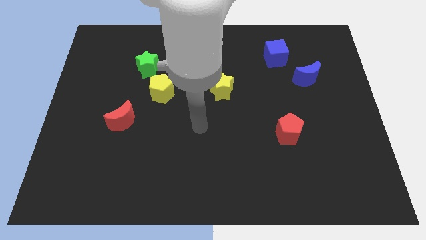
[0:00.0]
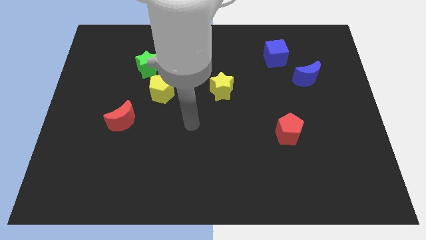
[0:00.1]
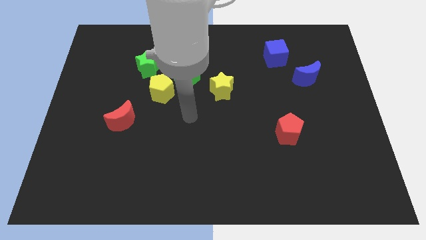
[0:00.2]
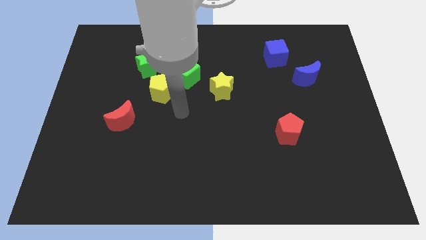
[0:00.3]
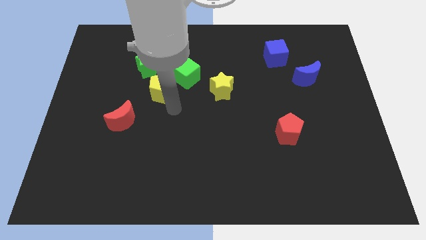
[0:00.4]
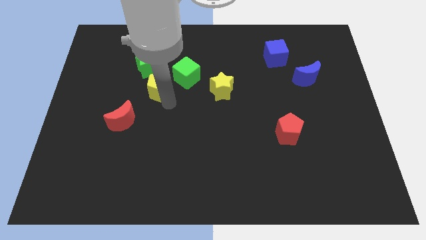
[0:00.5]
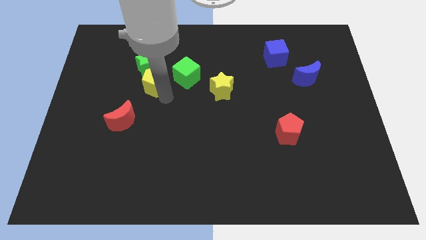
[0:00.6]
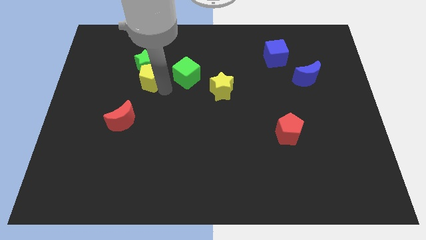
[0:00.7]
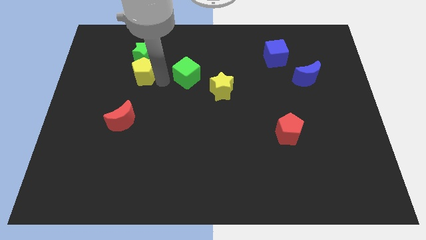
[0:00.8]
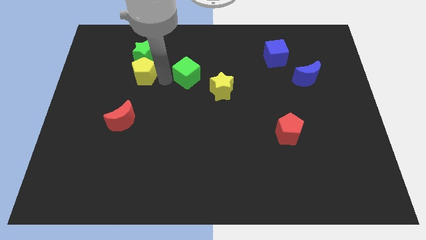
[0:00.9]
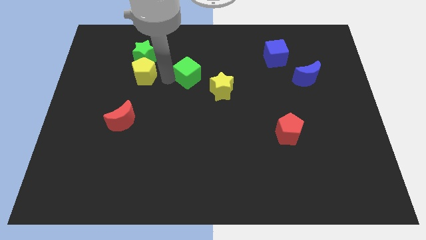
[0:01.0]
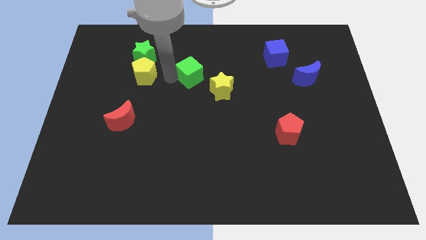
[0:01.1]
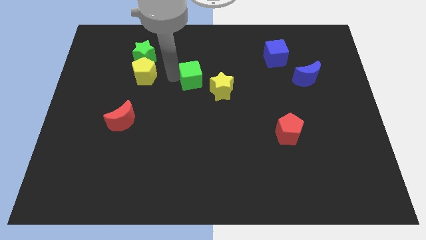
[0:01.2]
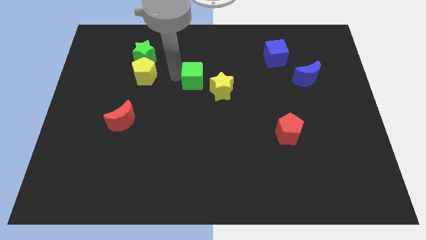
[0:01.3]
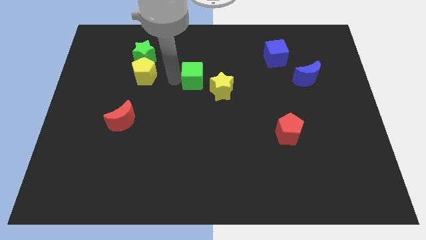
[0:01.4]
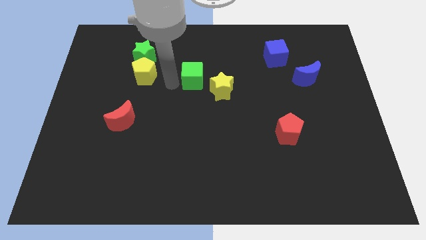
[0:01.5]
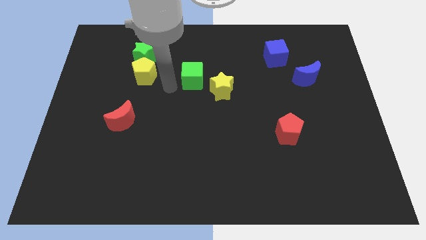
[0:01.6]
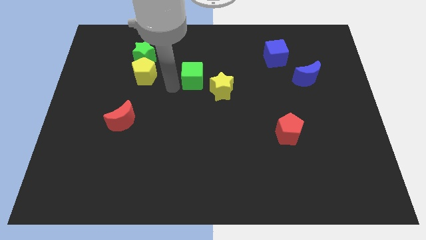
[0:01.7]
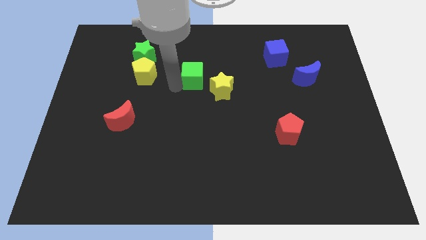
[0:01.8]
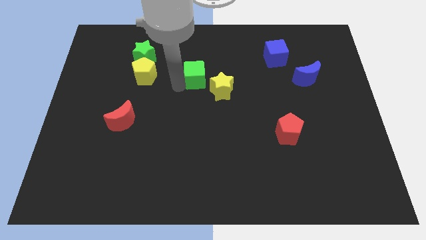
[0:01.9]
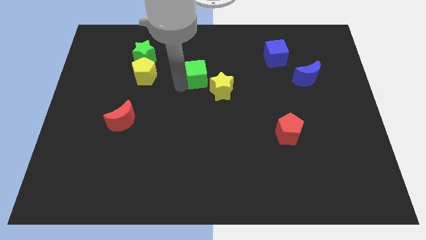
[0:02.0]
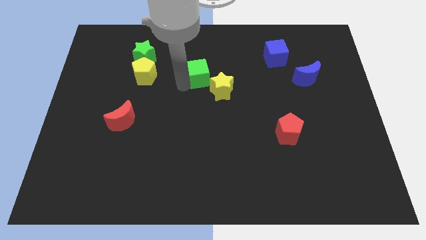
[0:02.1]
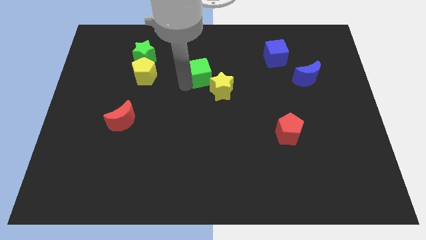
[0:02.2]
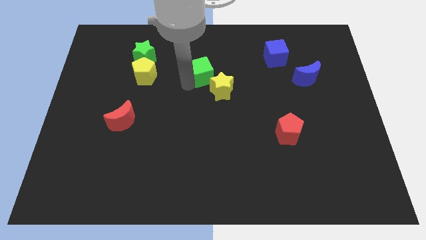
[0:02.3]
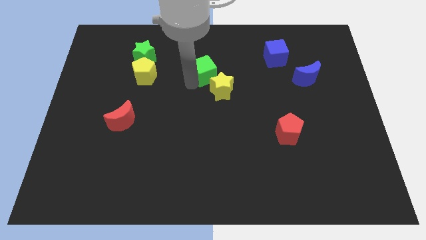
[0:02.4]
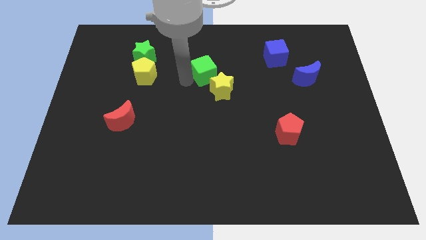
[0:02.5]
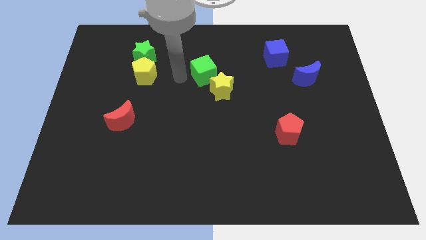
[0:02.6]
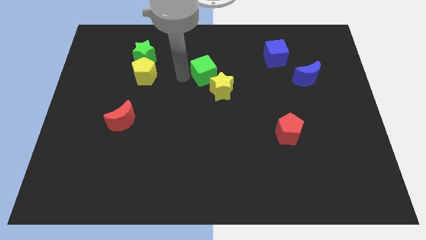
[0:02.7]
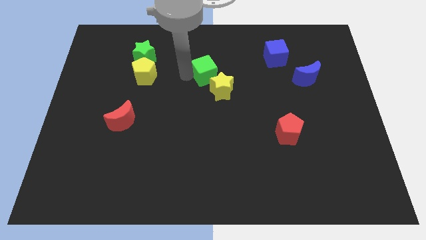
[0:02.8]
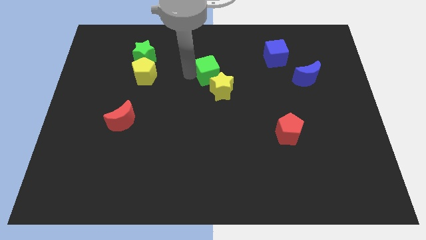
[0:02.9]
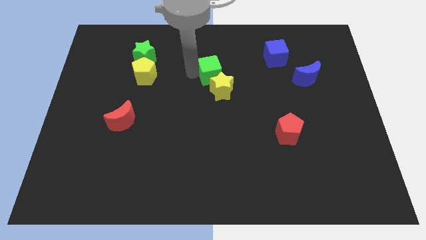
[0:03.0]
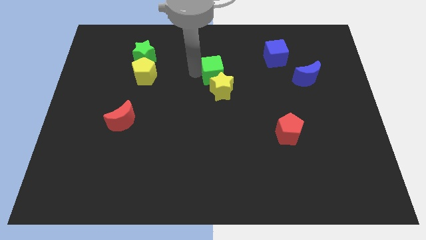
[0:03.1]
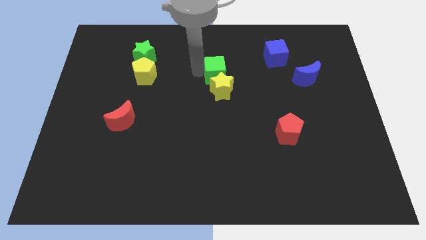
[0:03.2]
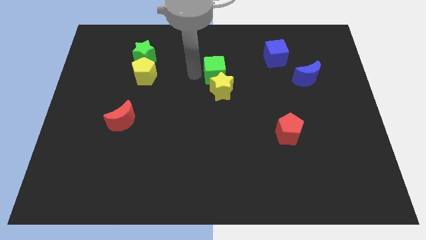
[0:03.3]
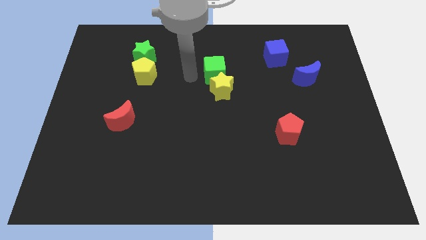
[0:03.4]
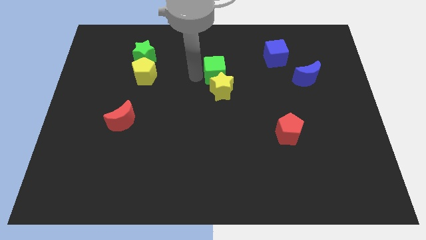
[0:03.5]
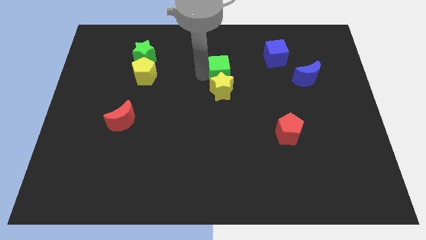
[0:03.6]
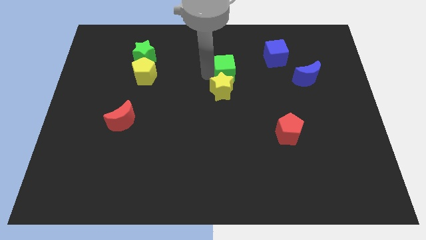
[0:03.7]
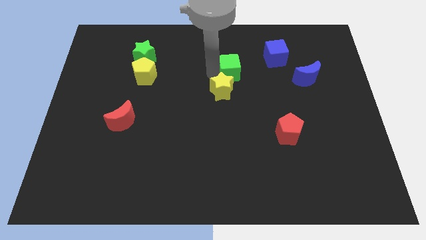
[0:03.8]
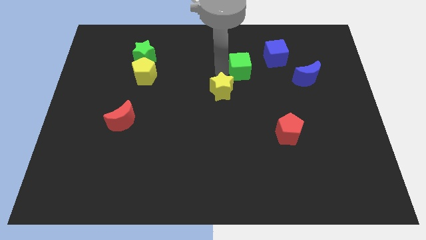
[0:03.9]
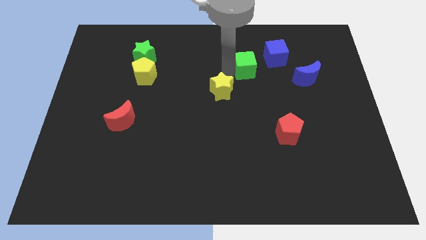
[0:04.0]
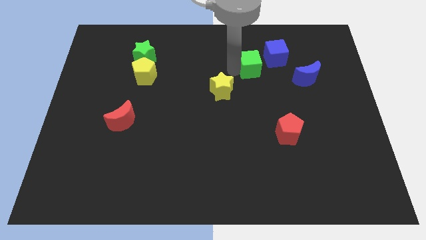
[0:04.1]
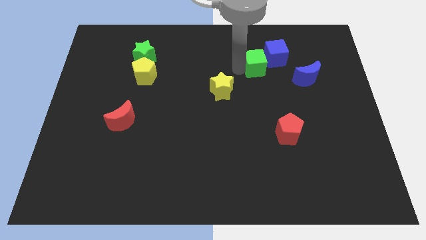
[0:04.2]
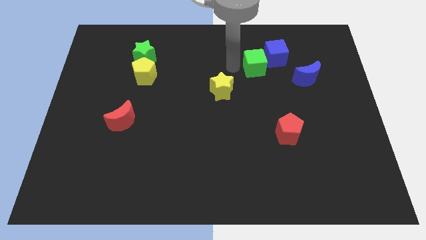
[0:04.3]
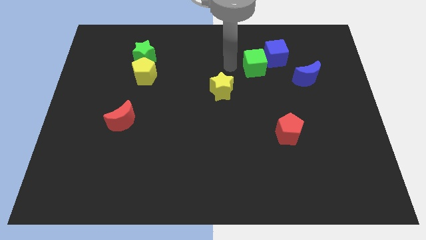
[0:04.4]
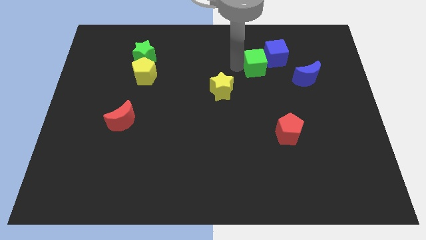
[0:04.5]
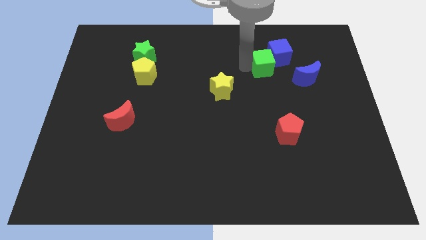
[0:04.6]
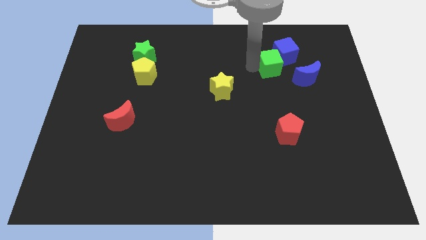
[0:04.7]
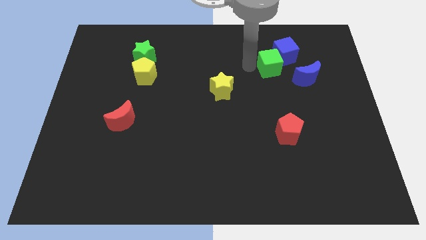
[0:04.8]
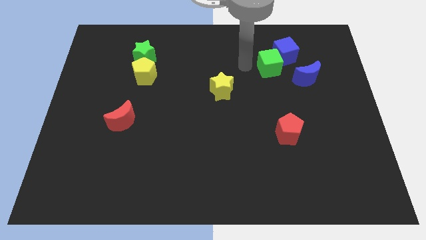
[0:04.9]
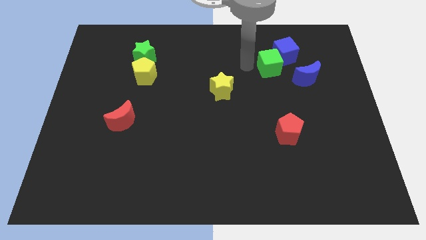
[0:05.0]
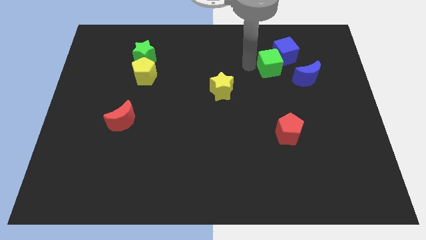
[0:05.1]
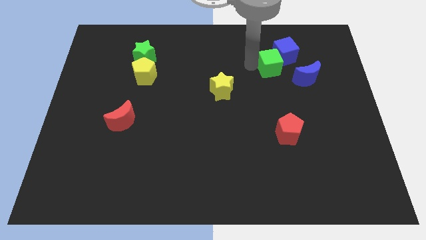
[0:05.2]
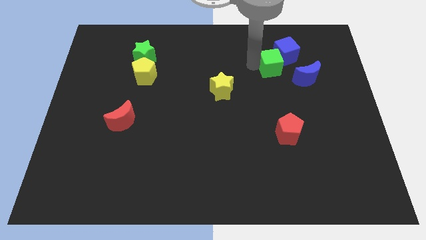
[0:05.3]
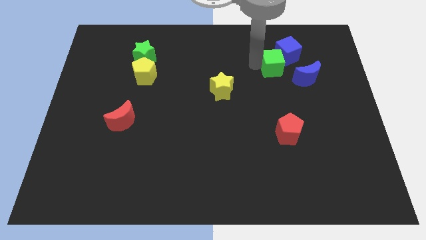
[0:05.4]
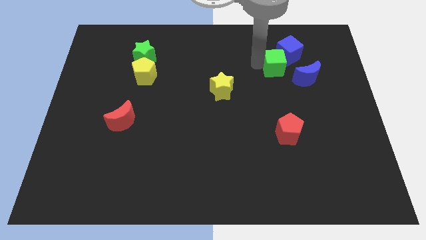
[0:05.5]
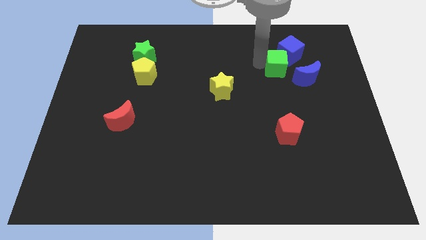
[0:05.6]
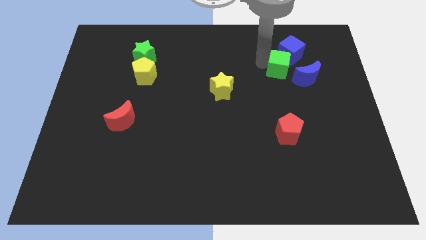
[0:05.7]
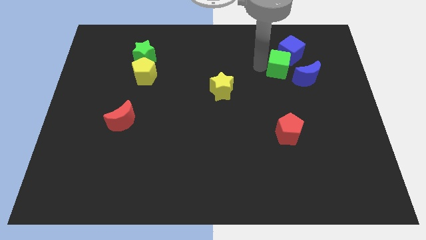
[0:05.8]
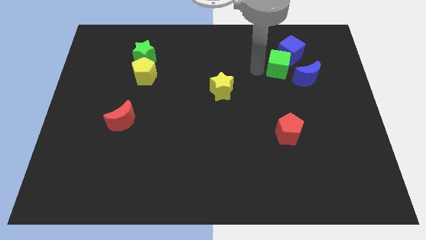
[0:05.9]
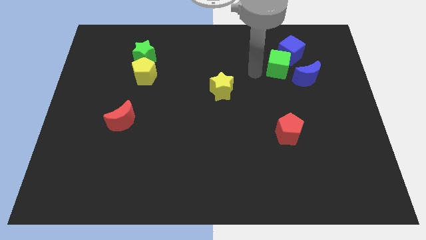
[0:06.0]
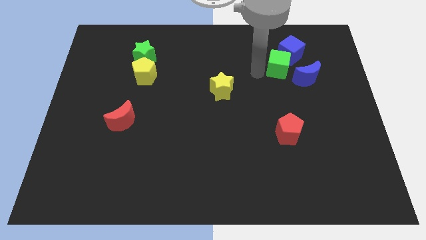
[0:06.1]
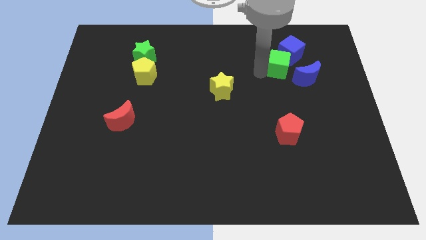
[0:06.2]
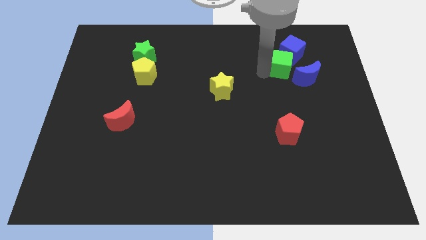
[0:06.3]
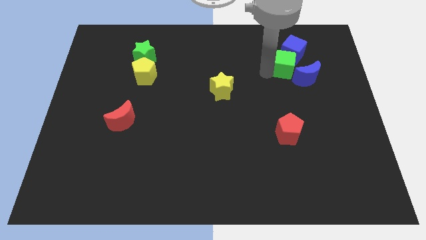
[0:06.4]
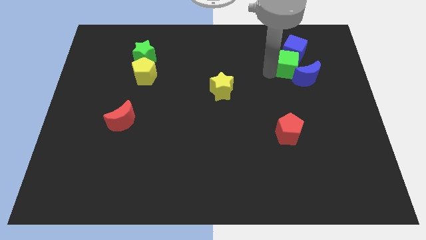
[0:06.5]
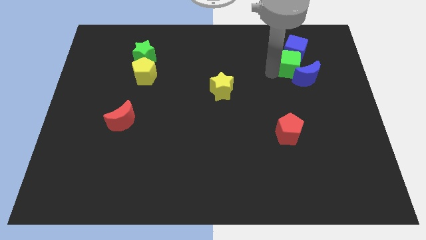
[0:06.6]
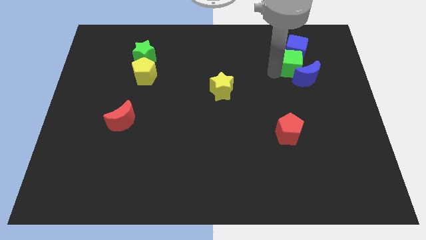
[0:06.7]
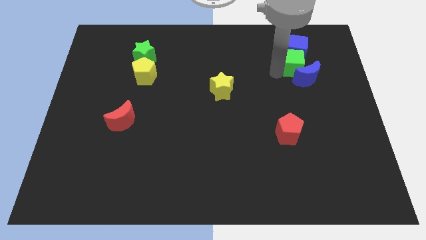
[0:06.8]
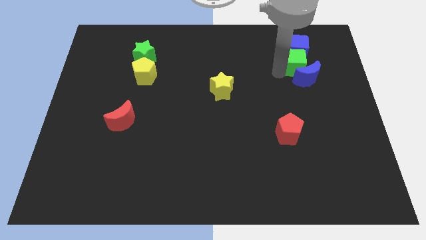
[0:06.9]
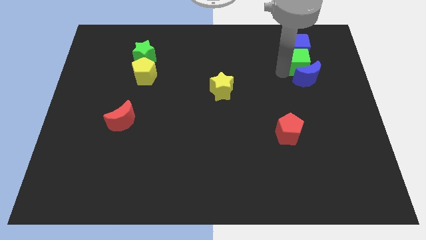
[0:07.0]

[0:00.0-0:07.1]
push the green cube to the top right side of the blue moon

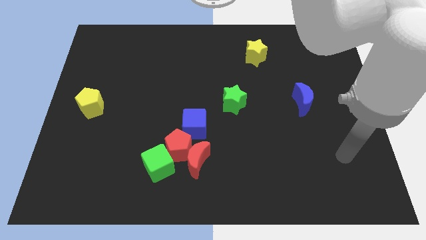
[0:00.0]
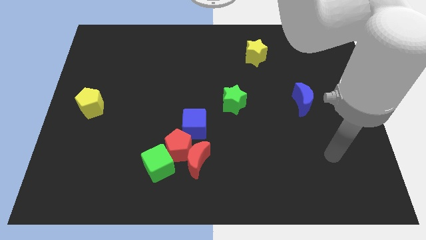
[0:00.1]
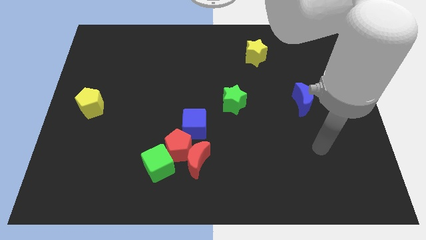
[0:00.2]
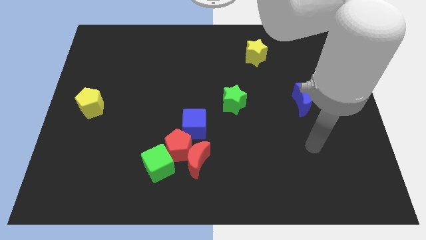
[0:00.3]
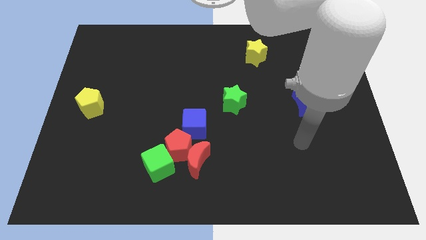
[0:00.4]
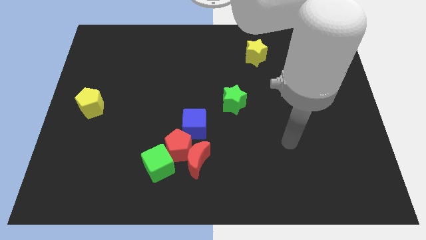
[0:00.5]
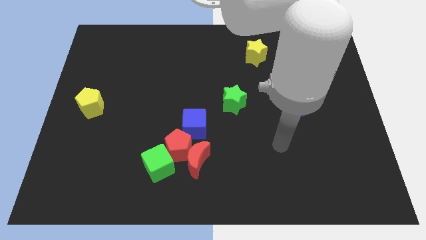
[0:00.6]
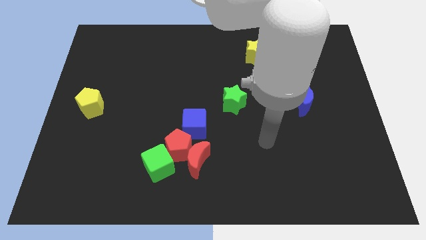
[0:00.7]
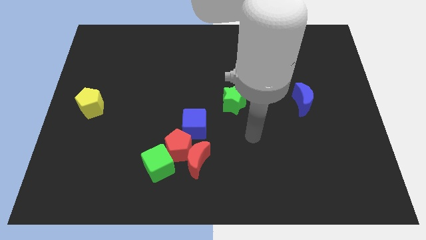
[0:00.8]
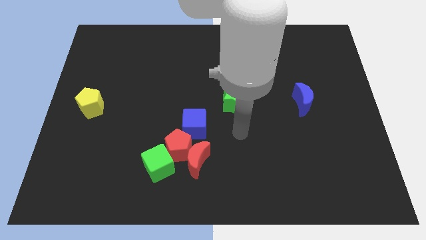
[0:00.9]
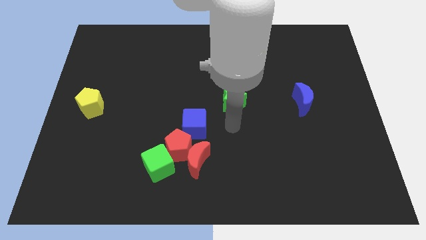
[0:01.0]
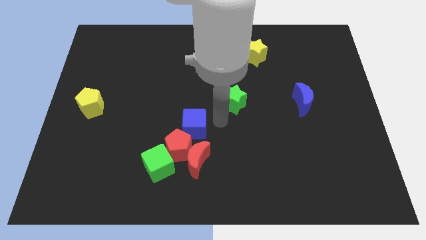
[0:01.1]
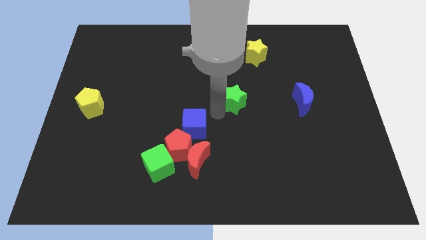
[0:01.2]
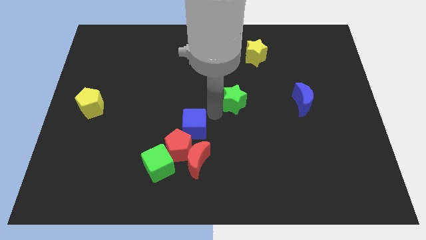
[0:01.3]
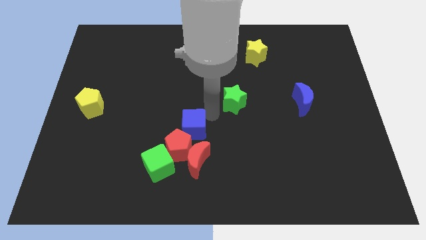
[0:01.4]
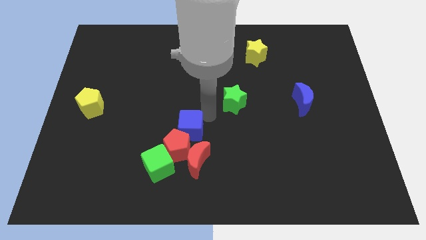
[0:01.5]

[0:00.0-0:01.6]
push the blue cube diagonally up and to the left of the red moon
